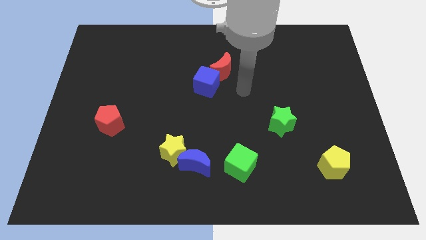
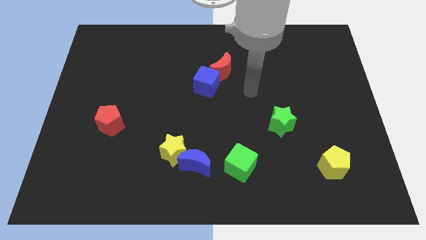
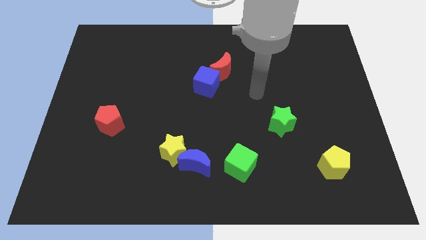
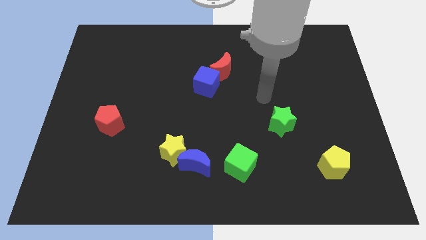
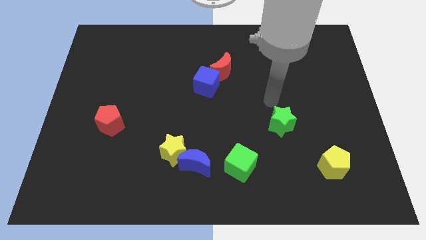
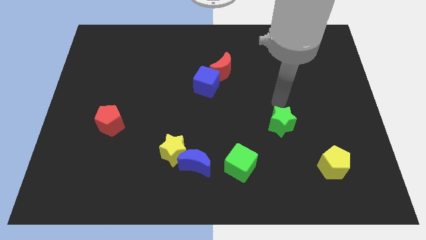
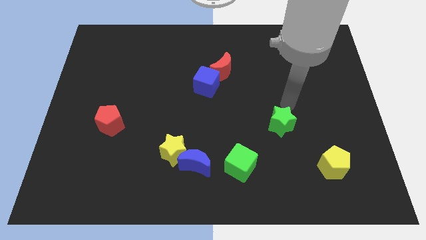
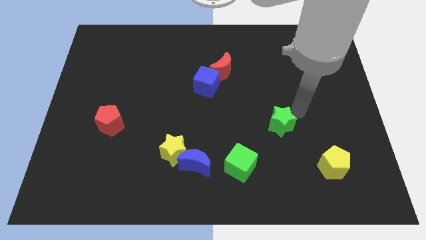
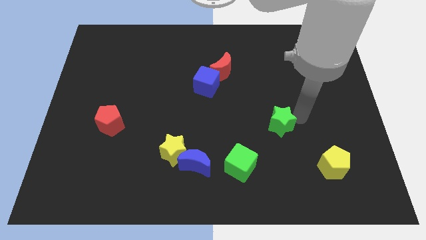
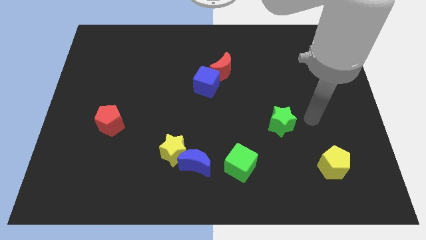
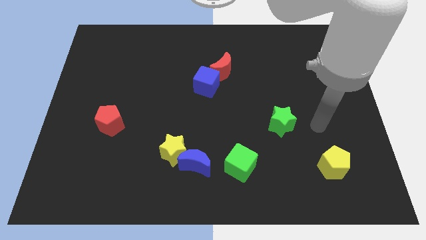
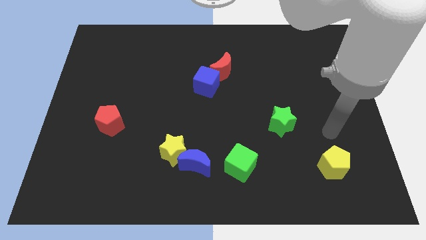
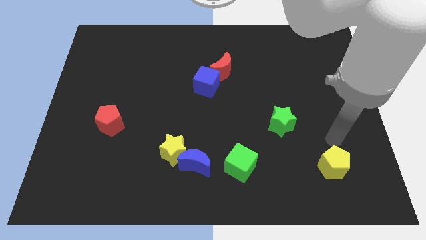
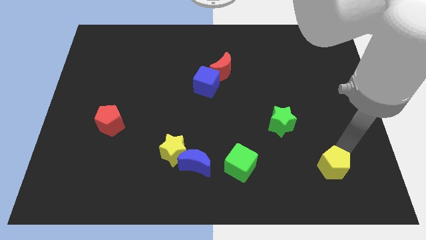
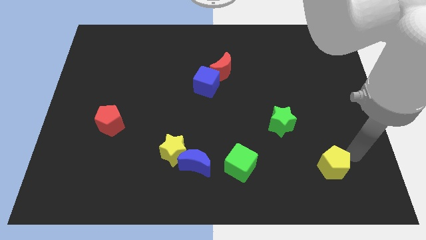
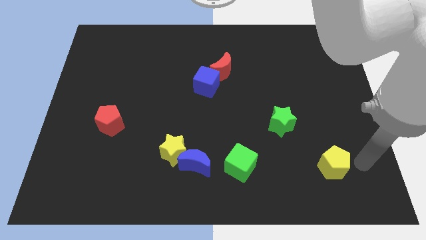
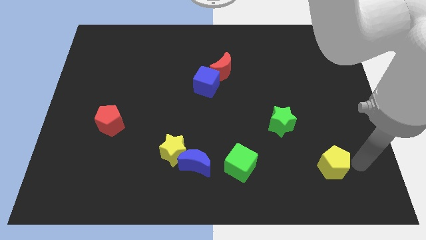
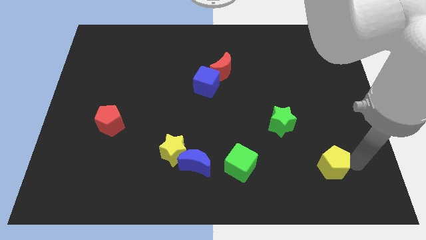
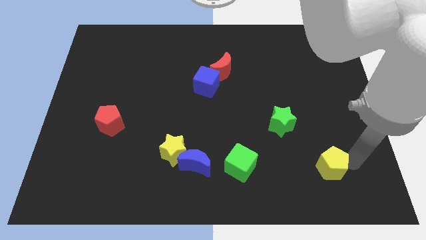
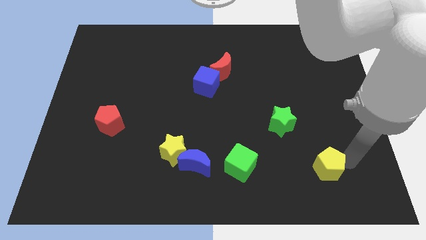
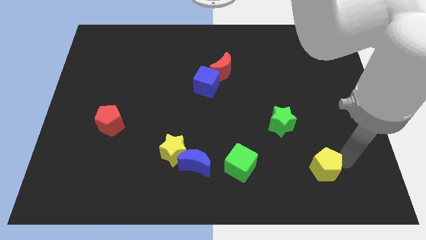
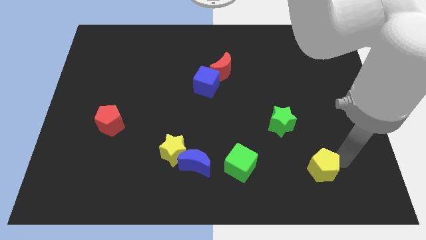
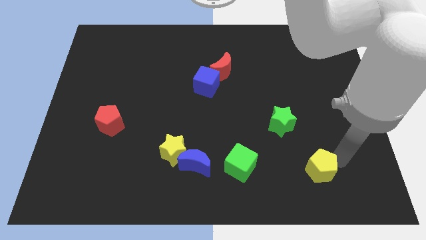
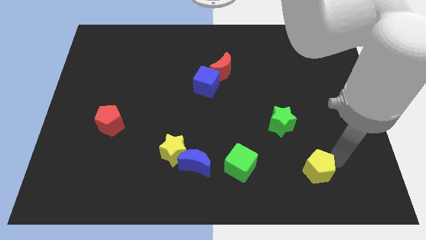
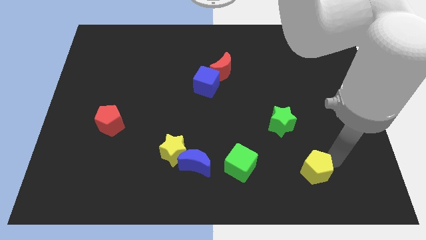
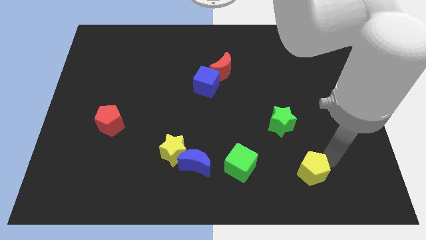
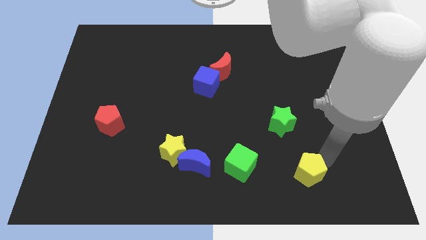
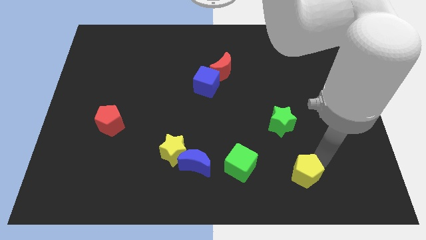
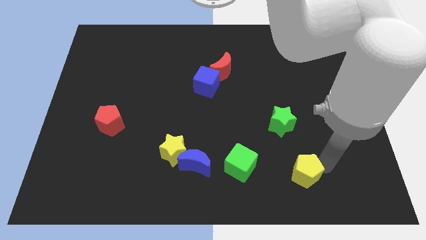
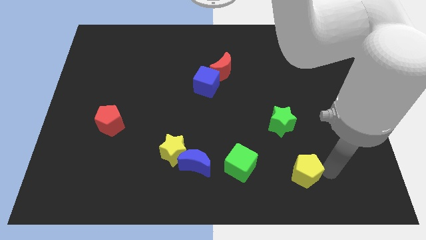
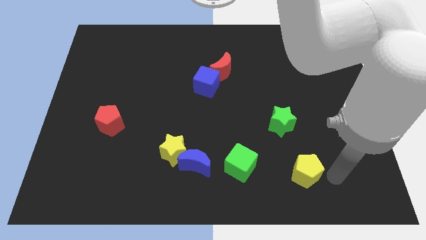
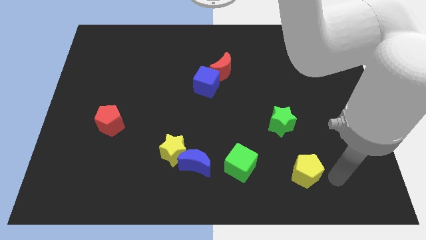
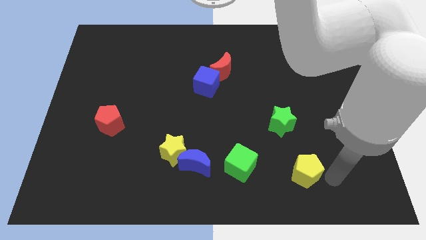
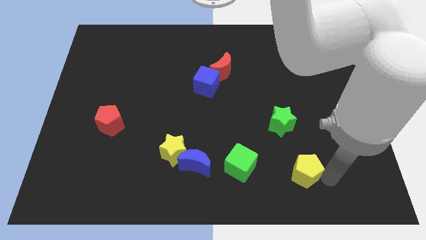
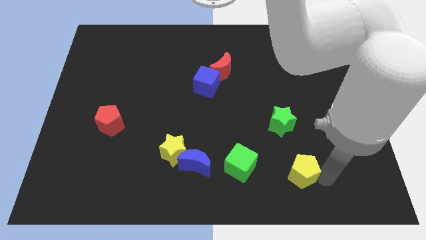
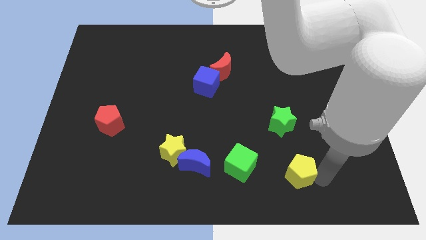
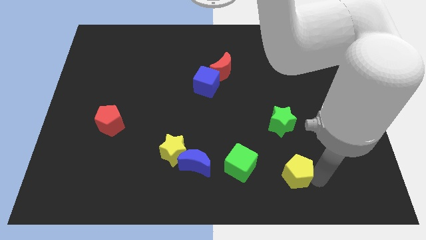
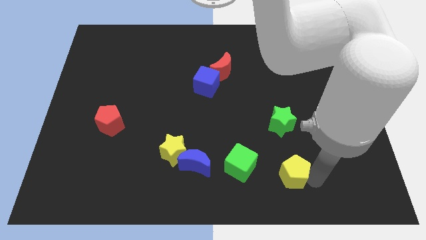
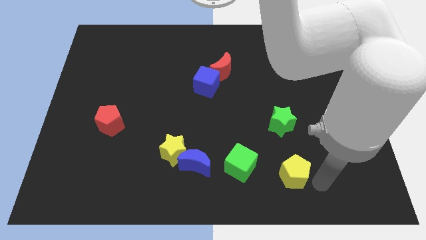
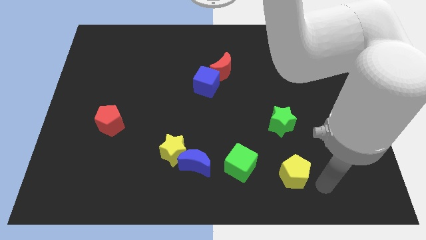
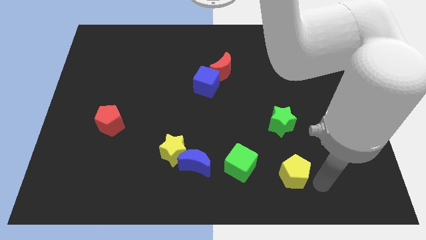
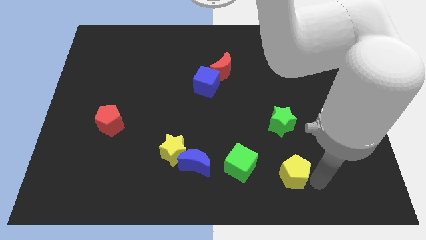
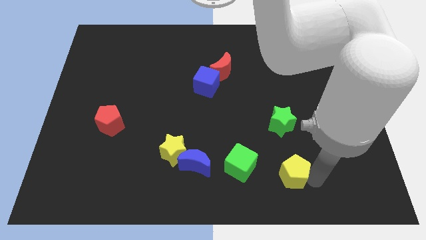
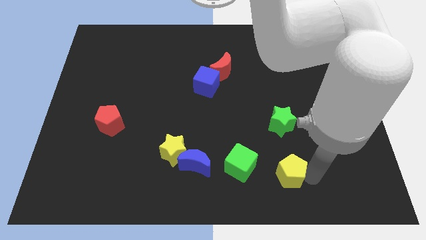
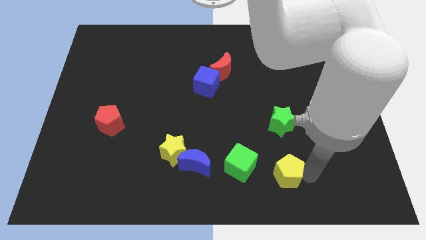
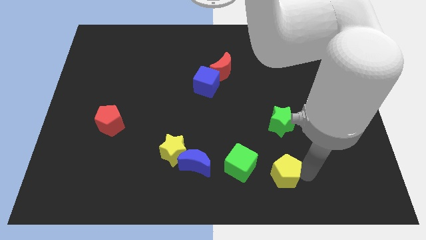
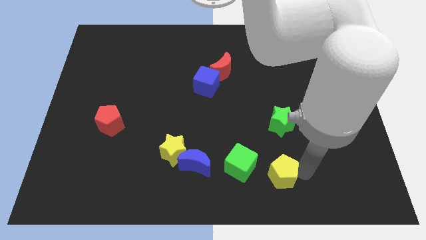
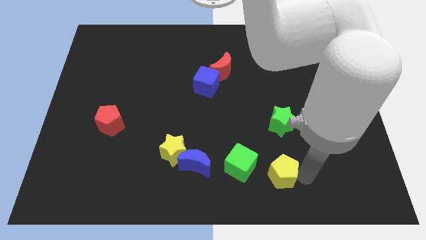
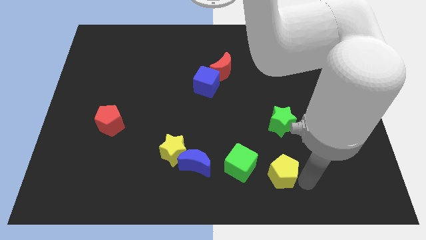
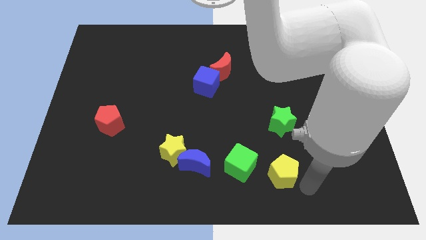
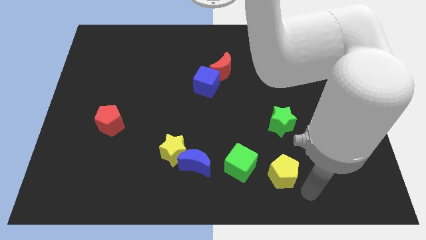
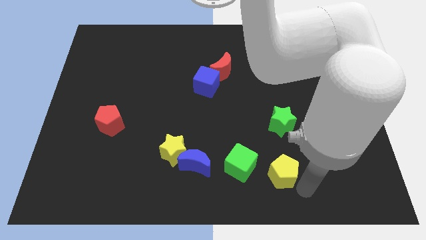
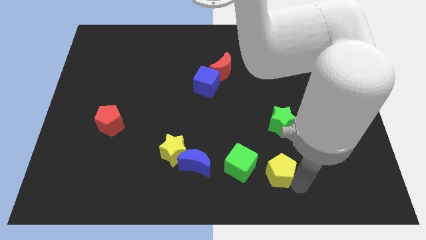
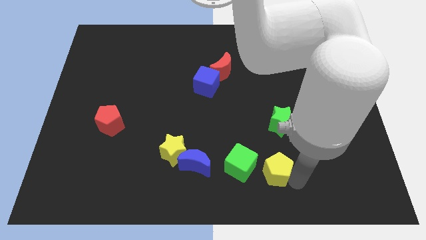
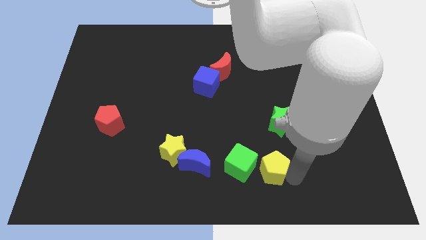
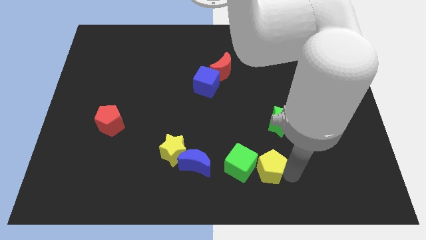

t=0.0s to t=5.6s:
push the yellow pentagon close to the green cube

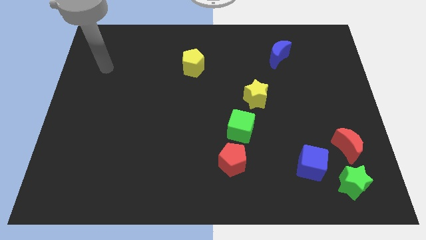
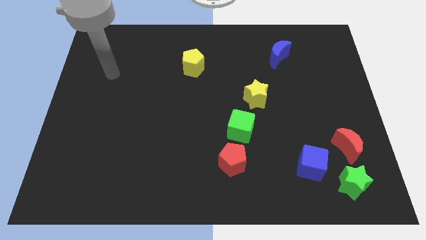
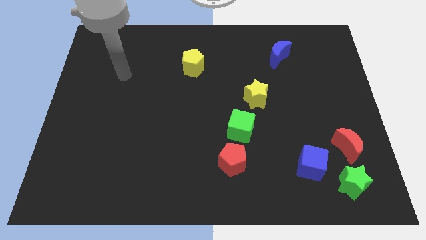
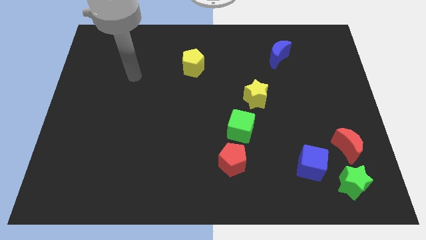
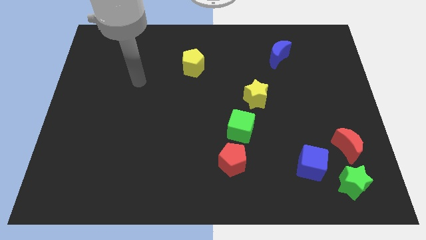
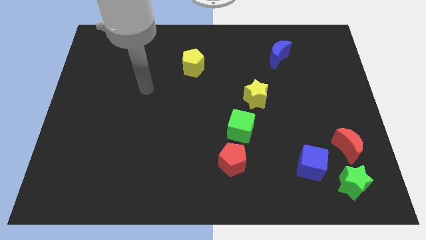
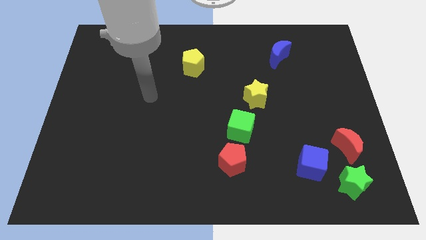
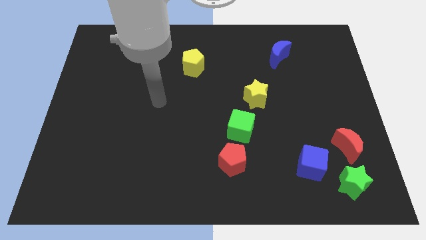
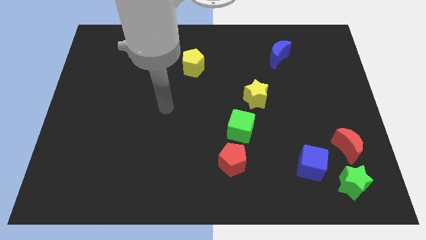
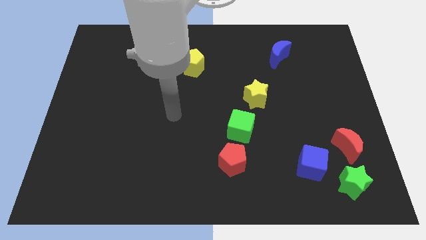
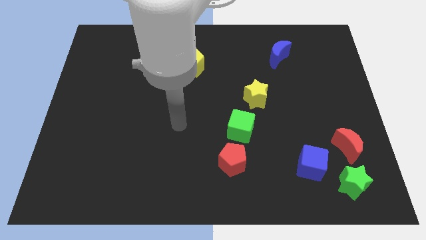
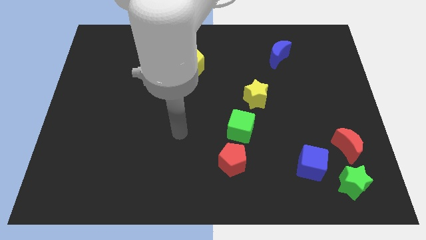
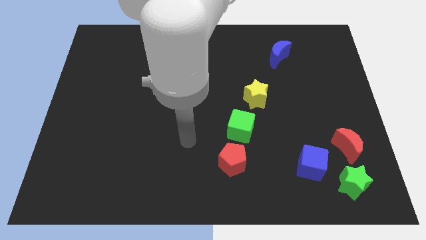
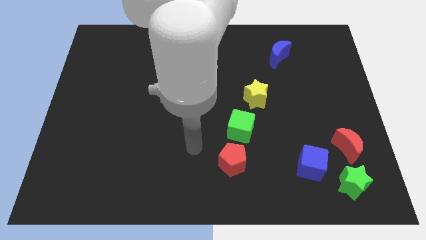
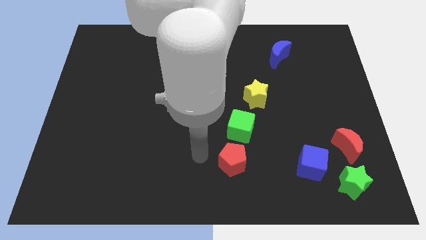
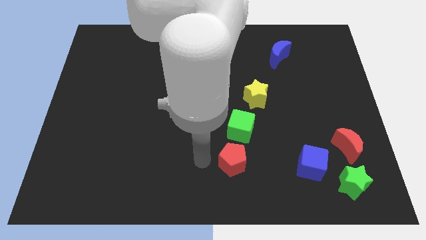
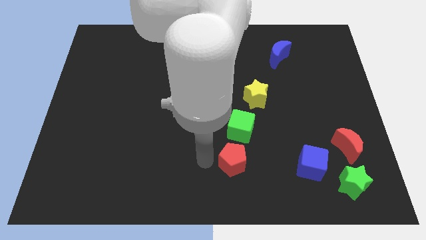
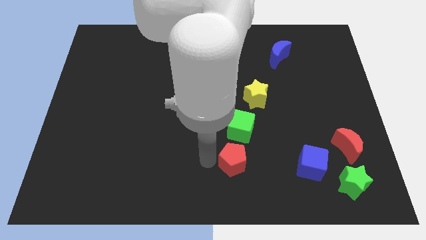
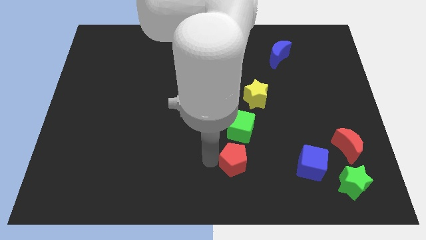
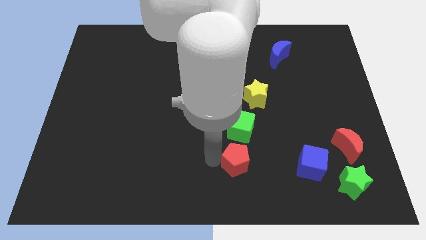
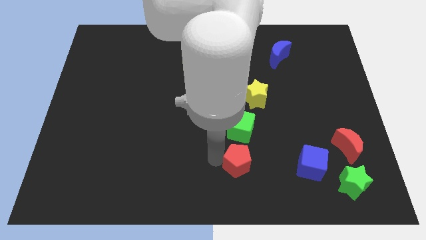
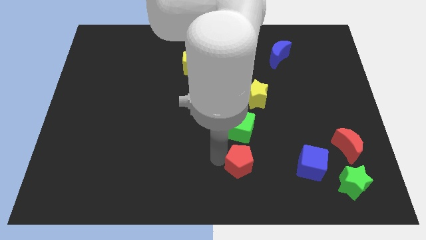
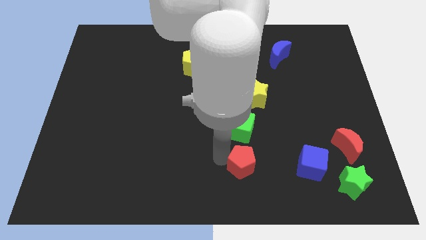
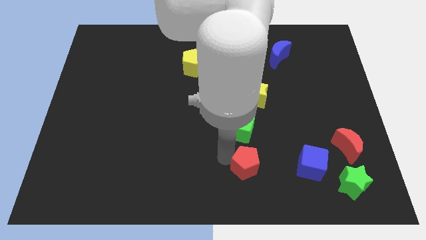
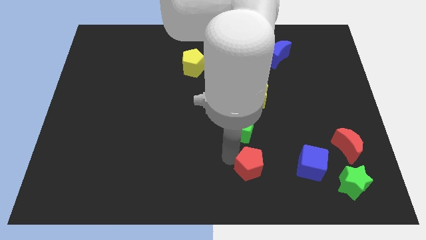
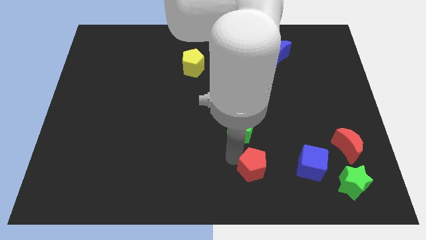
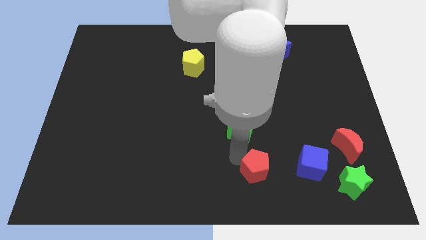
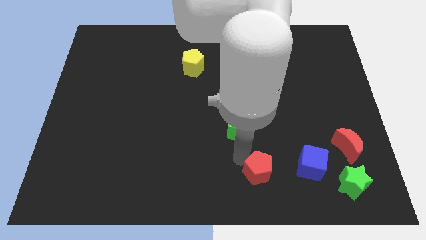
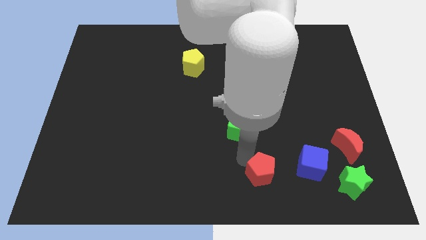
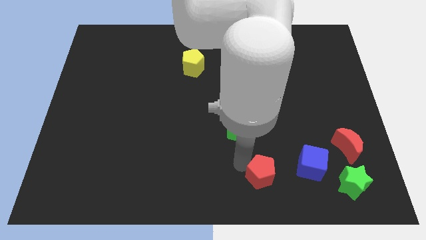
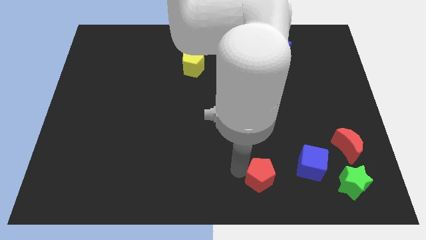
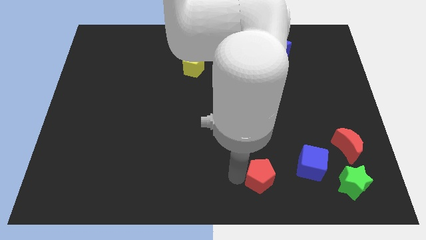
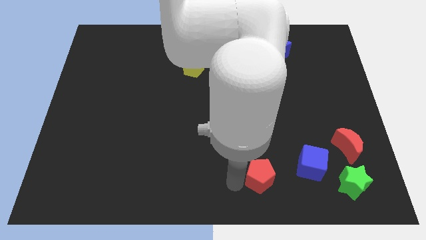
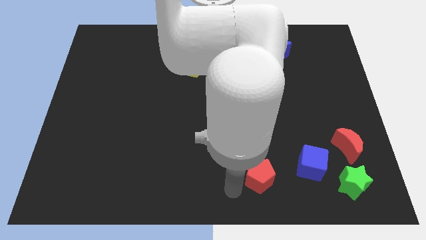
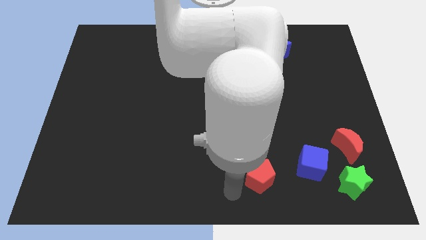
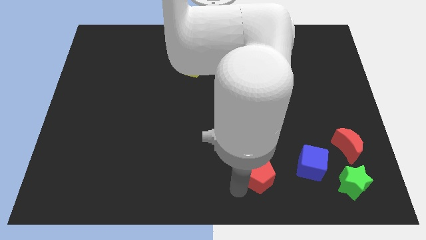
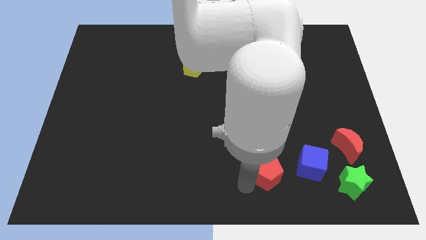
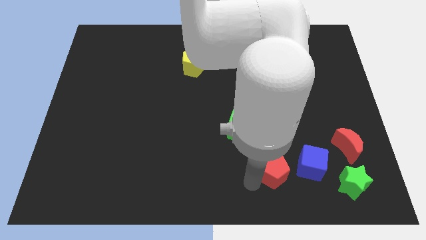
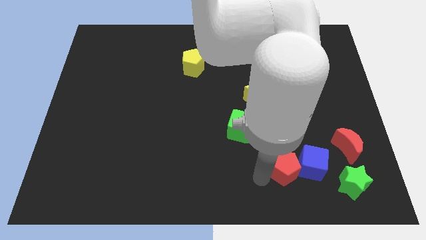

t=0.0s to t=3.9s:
move the red pentagon next to the blue cube
